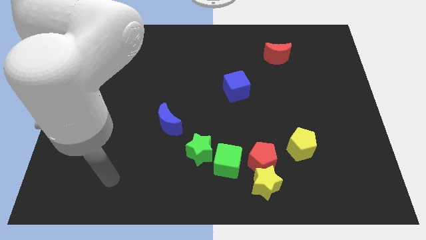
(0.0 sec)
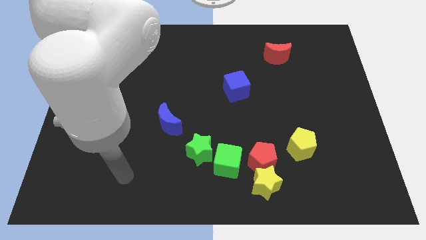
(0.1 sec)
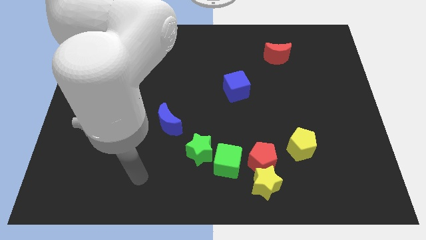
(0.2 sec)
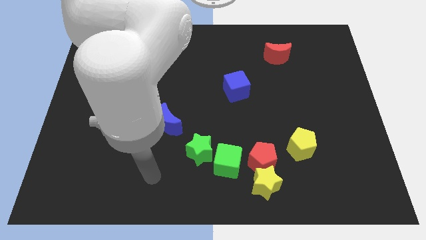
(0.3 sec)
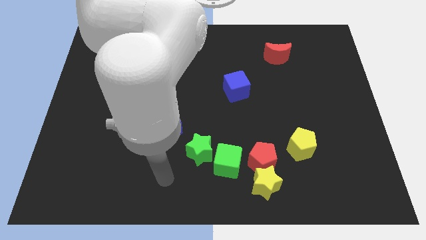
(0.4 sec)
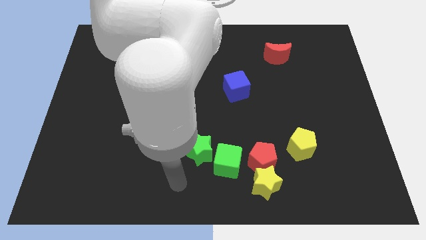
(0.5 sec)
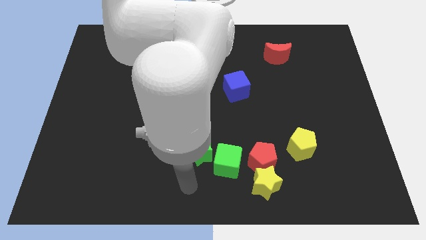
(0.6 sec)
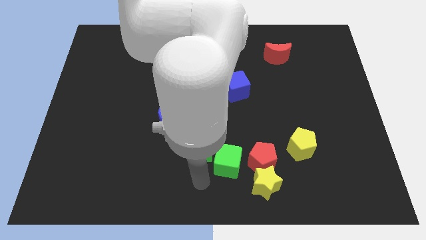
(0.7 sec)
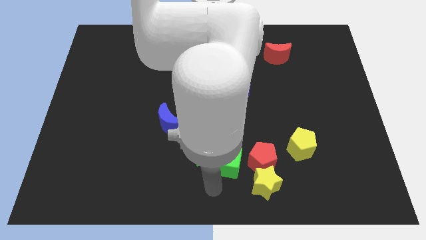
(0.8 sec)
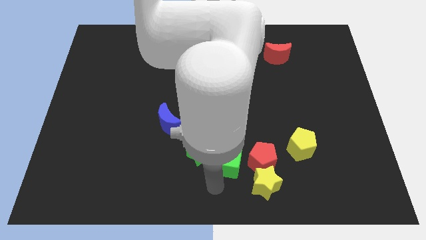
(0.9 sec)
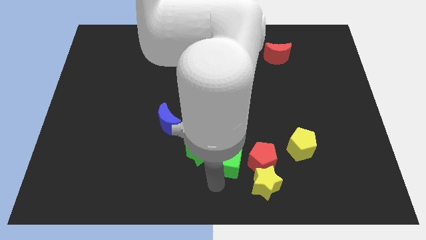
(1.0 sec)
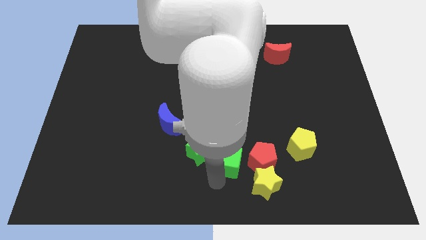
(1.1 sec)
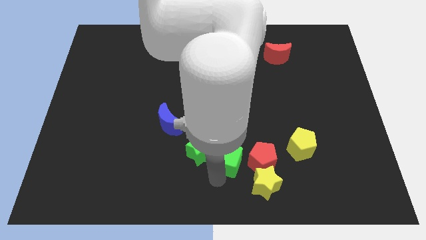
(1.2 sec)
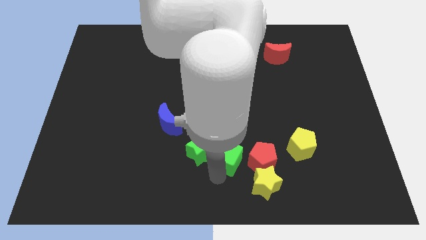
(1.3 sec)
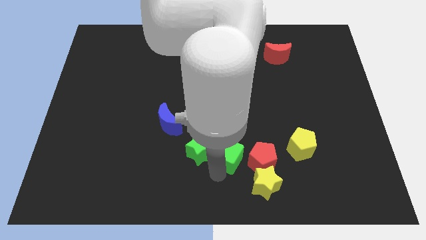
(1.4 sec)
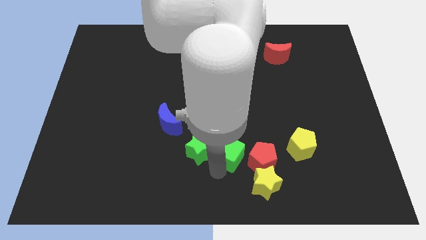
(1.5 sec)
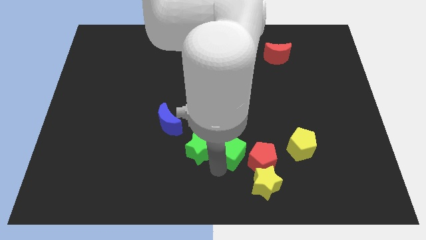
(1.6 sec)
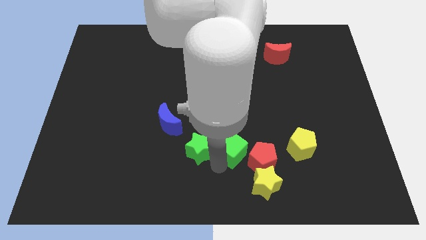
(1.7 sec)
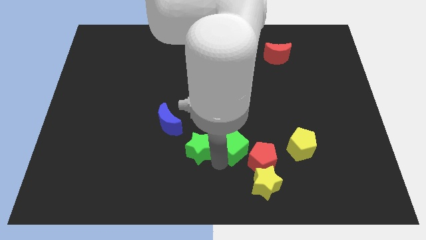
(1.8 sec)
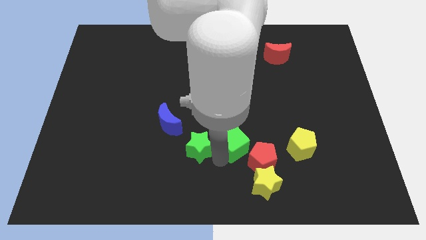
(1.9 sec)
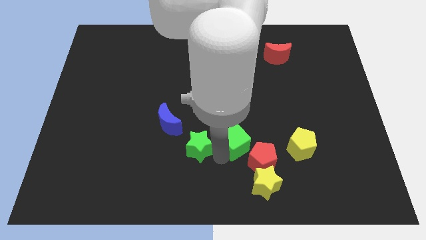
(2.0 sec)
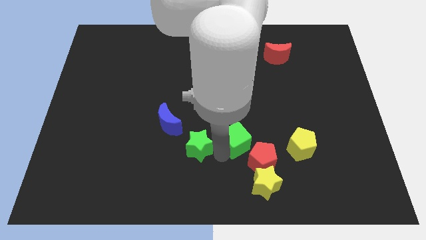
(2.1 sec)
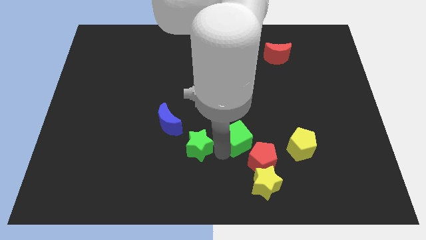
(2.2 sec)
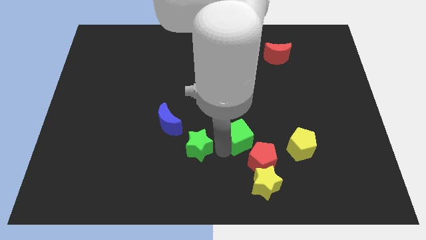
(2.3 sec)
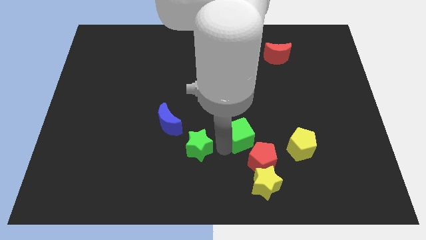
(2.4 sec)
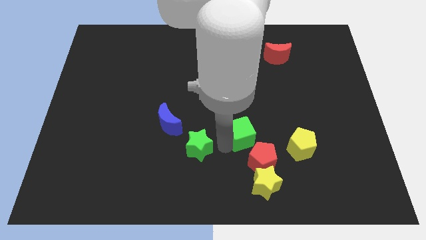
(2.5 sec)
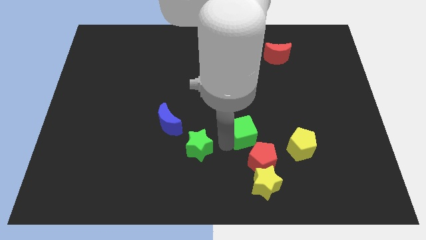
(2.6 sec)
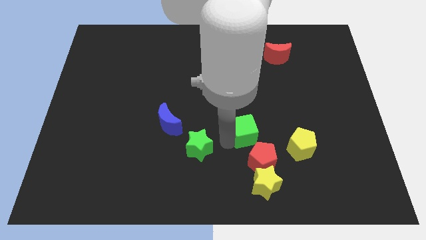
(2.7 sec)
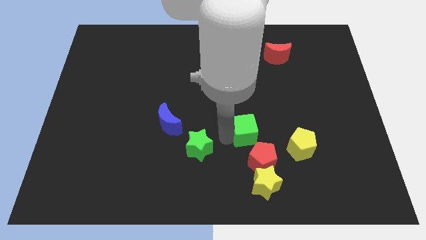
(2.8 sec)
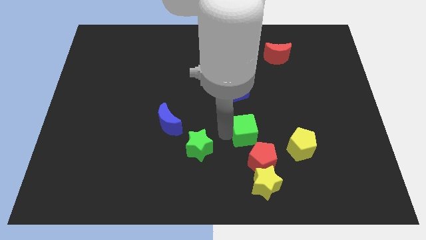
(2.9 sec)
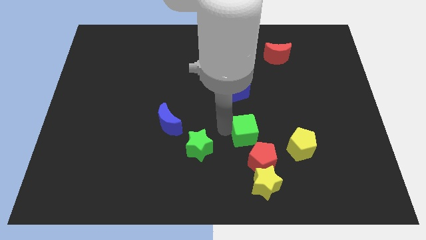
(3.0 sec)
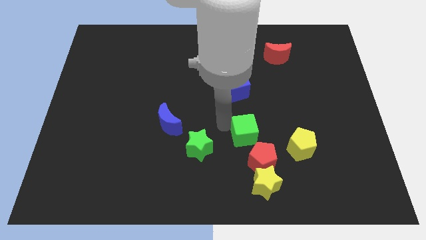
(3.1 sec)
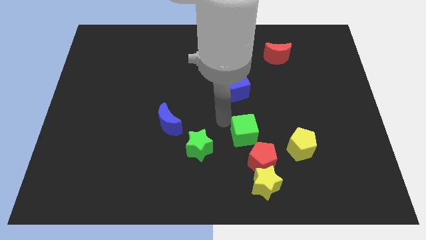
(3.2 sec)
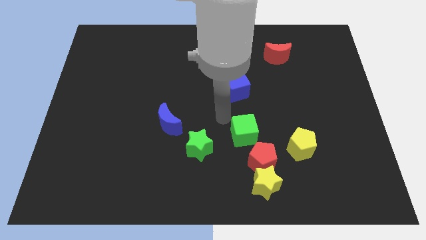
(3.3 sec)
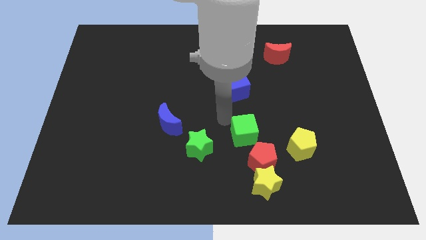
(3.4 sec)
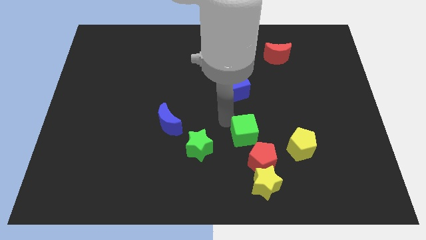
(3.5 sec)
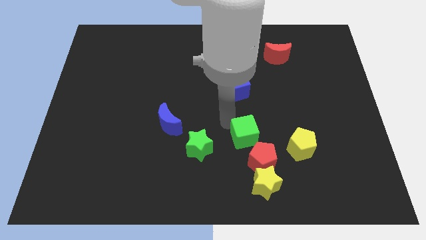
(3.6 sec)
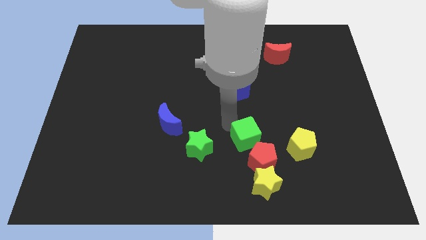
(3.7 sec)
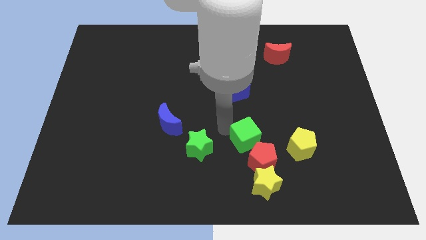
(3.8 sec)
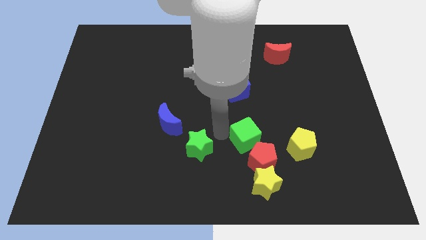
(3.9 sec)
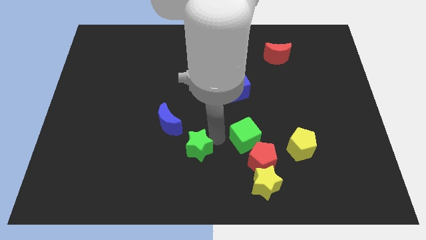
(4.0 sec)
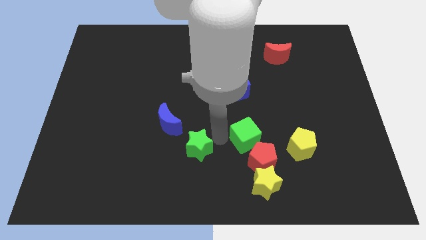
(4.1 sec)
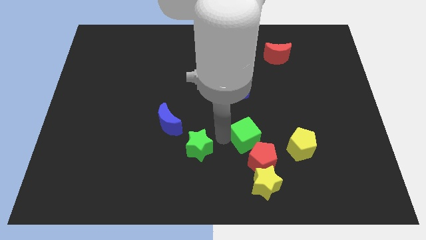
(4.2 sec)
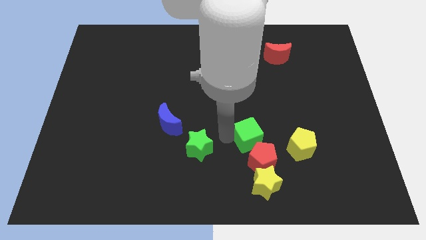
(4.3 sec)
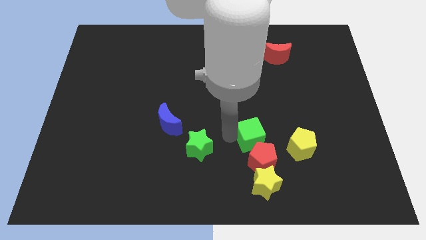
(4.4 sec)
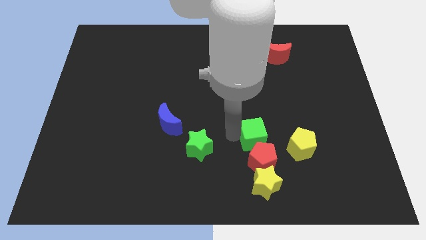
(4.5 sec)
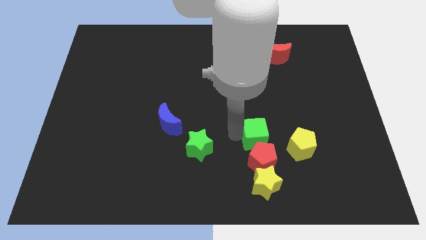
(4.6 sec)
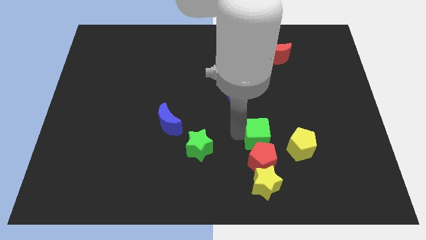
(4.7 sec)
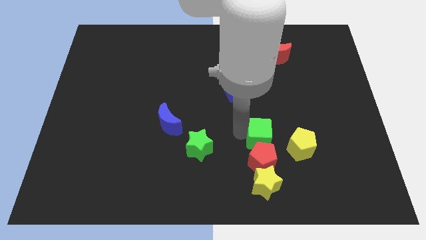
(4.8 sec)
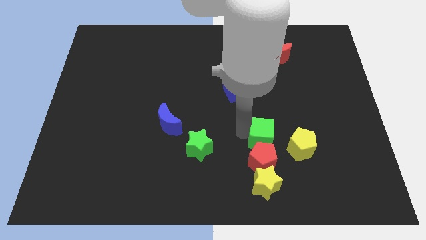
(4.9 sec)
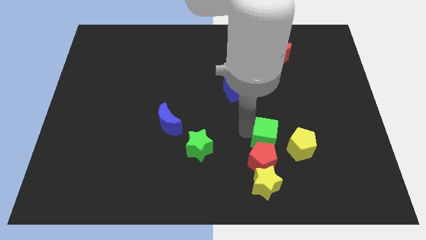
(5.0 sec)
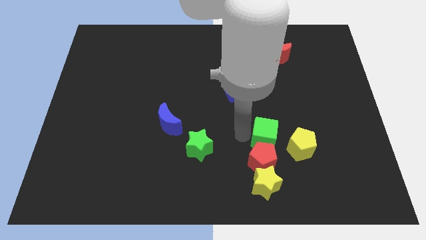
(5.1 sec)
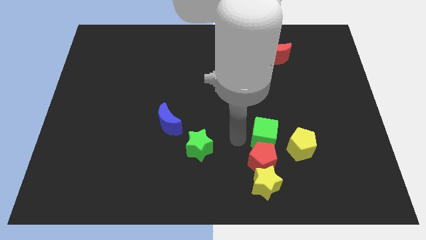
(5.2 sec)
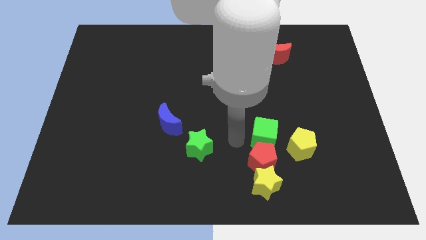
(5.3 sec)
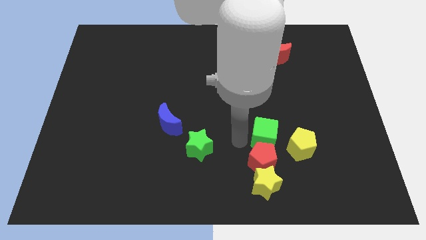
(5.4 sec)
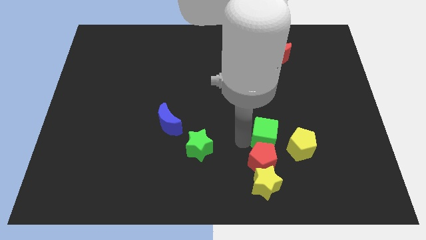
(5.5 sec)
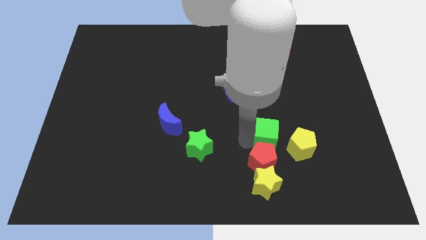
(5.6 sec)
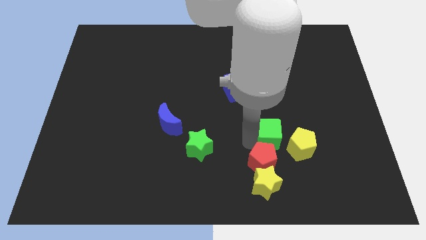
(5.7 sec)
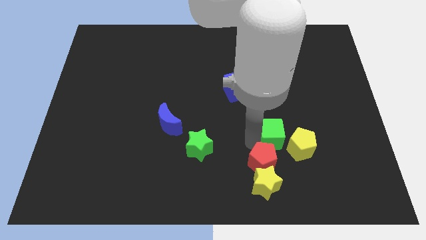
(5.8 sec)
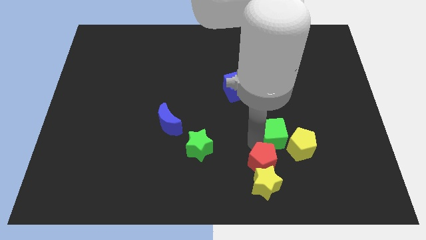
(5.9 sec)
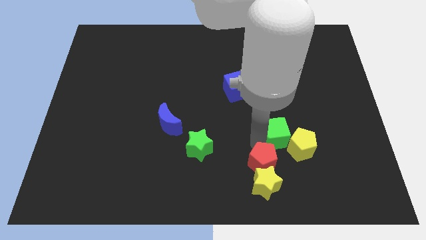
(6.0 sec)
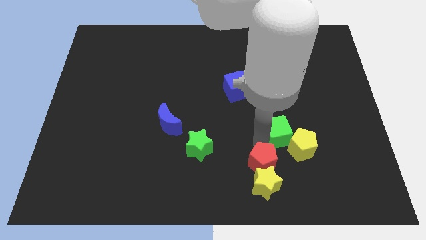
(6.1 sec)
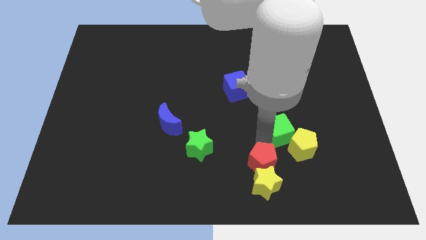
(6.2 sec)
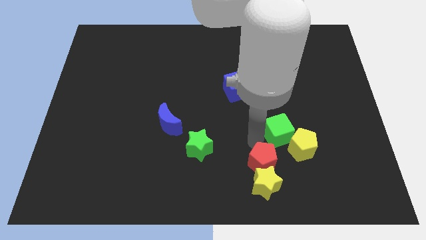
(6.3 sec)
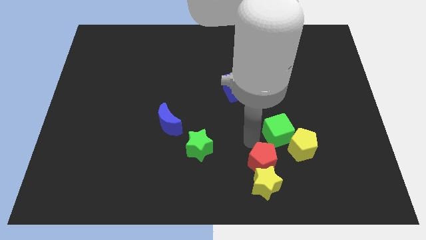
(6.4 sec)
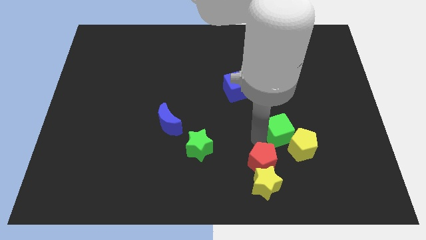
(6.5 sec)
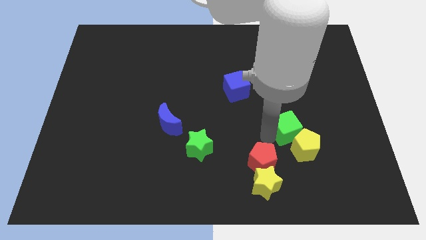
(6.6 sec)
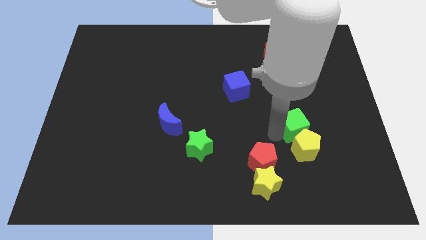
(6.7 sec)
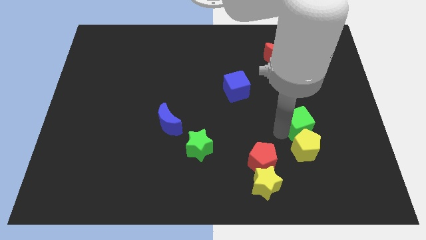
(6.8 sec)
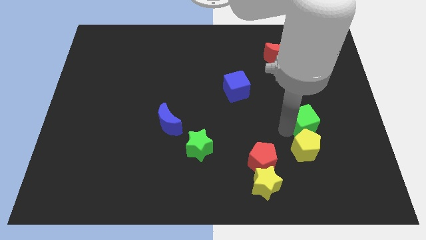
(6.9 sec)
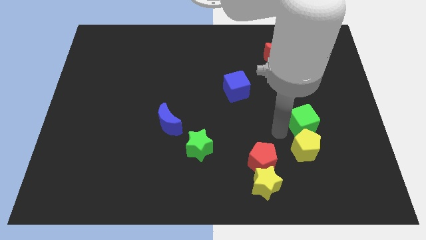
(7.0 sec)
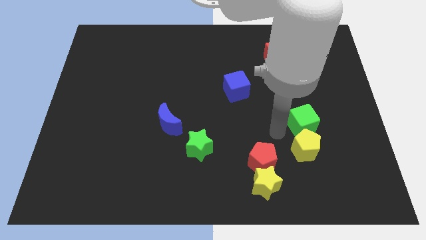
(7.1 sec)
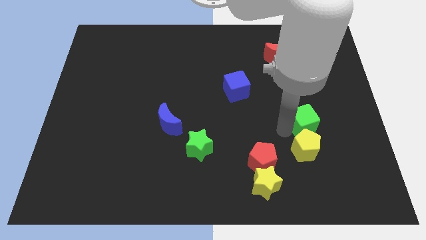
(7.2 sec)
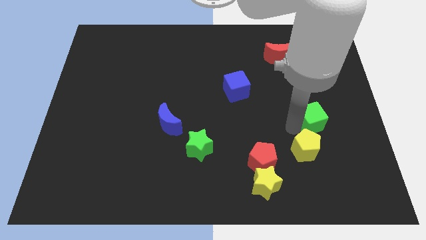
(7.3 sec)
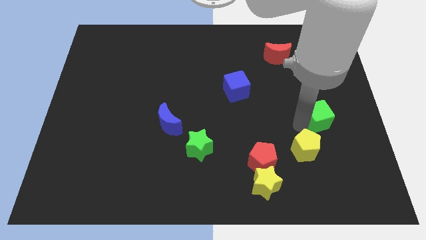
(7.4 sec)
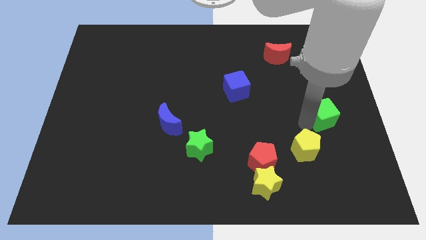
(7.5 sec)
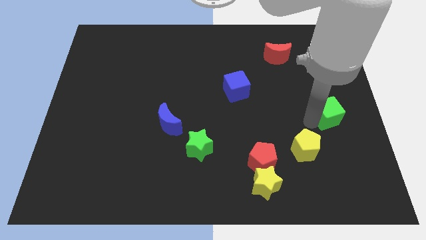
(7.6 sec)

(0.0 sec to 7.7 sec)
slide the green cube to the right side
